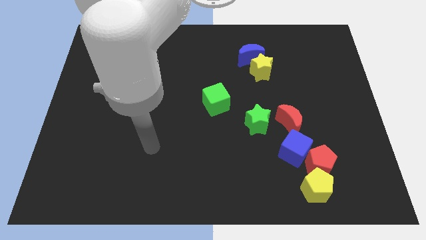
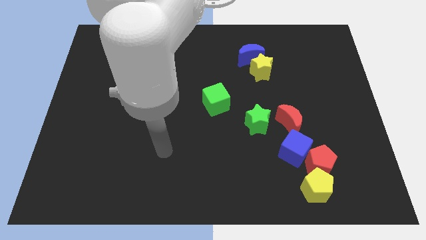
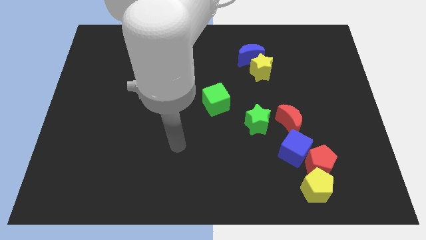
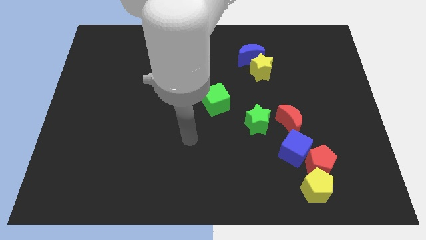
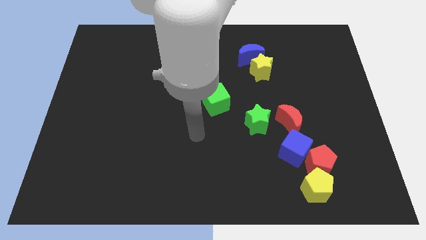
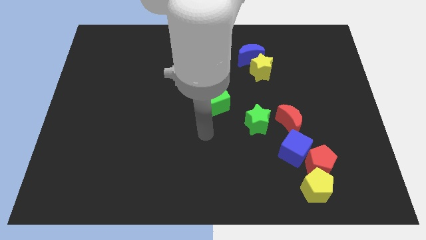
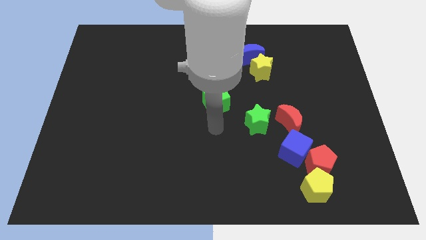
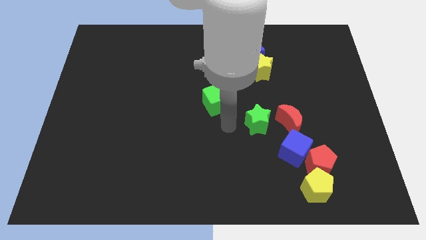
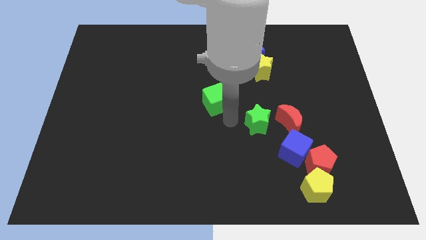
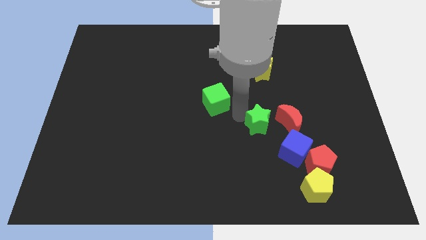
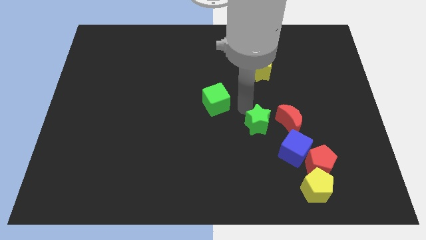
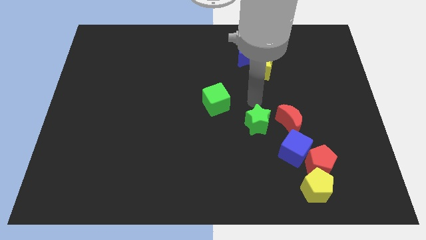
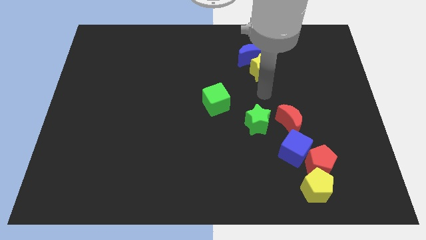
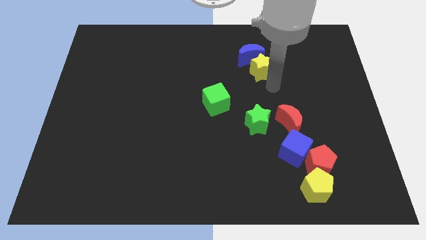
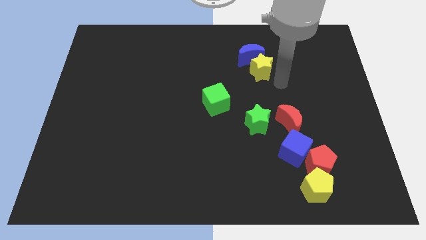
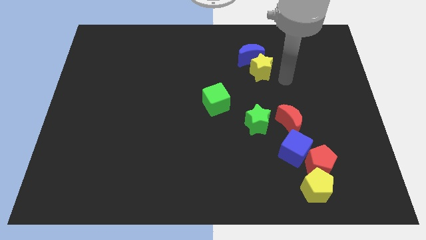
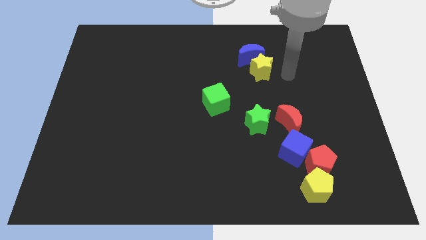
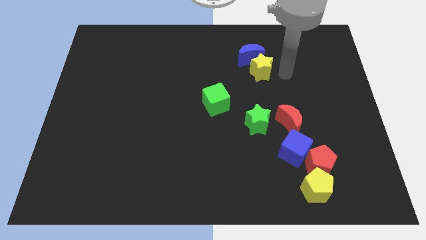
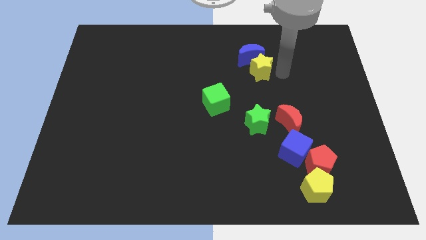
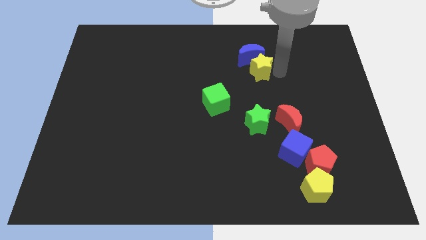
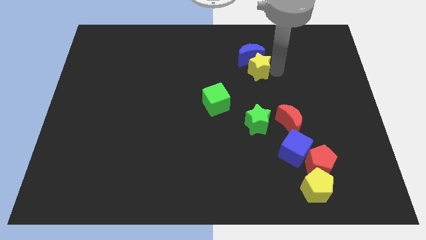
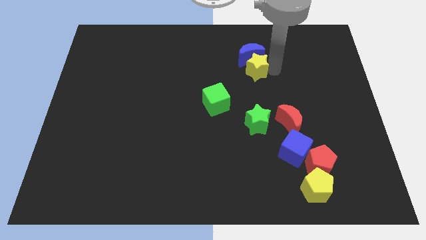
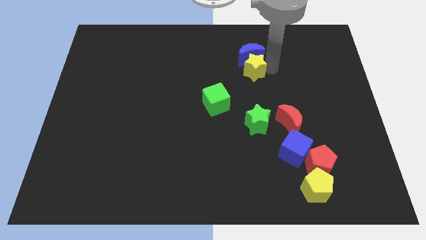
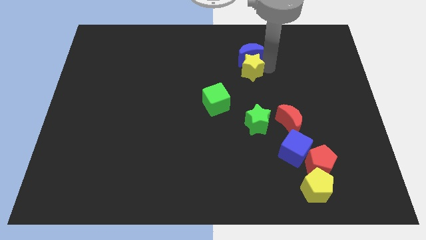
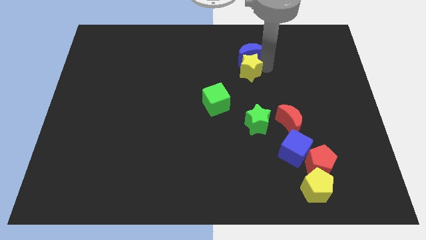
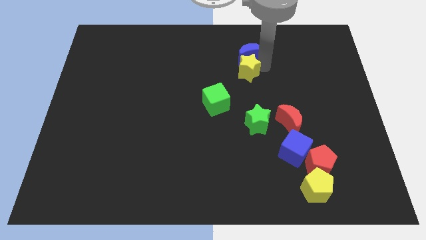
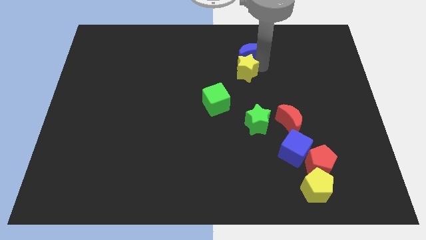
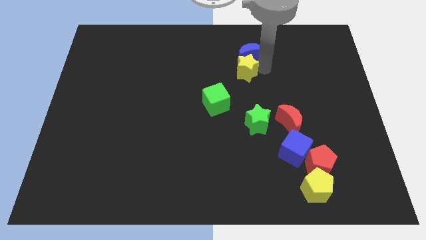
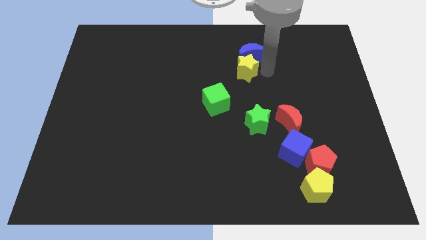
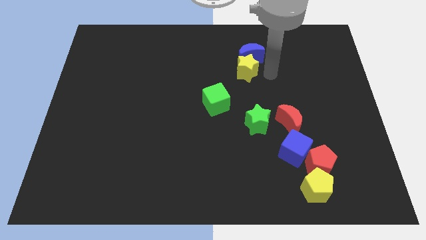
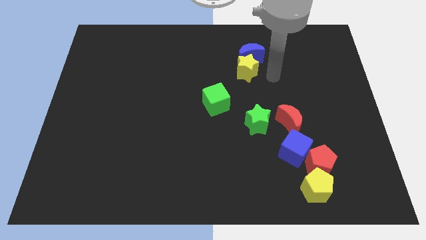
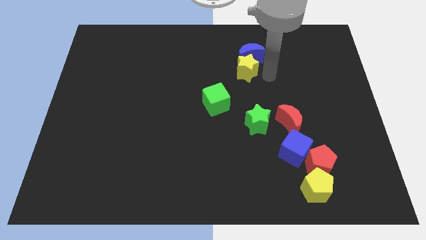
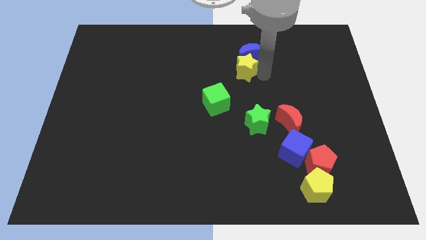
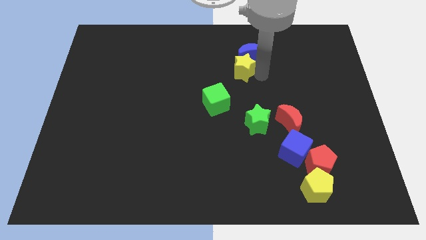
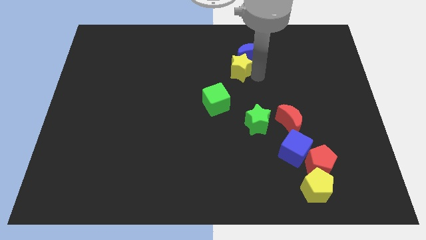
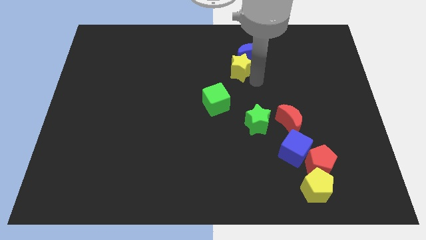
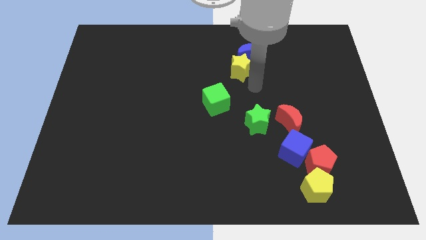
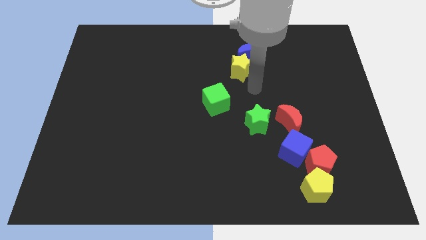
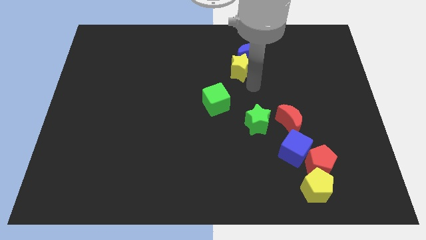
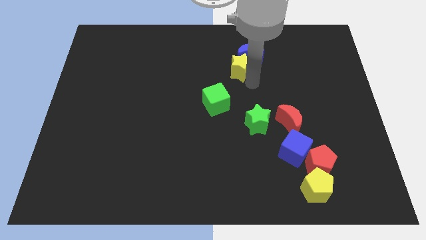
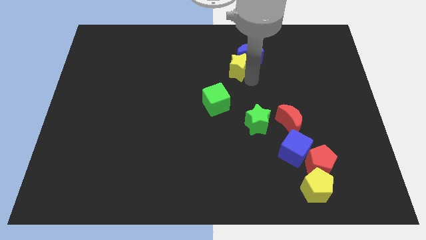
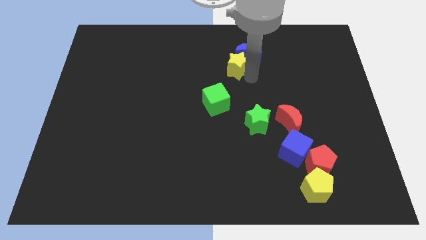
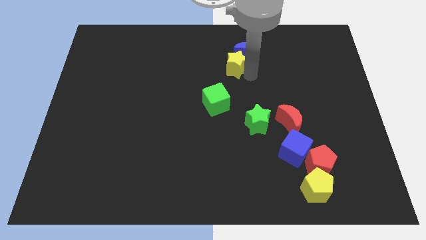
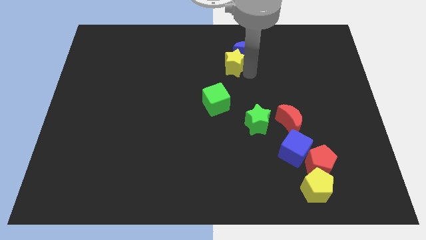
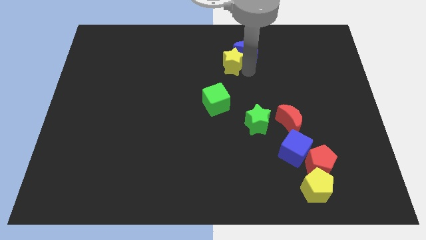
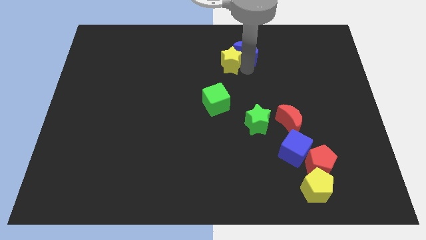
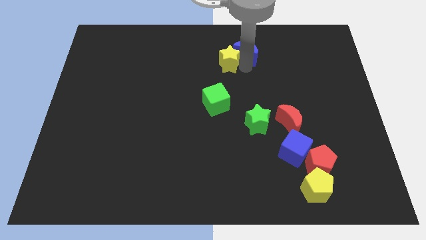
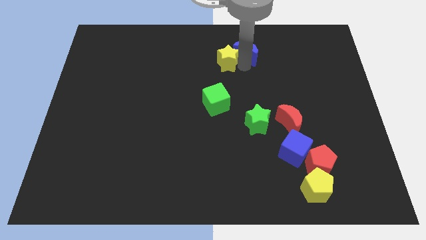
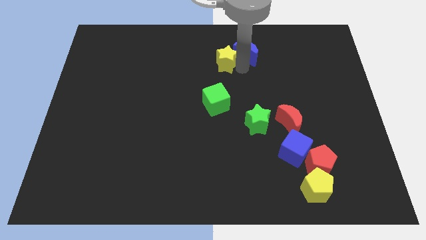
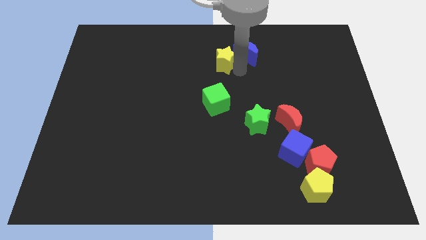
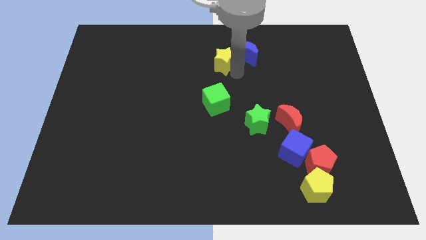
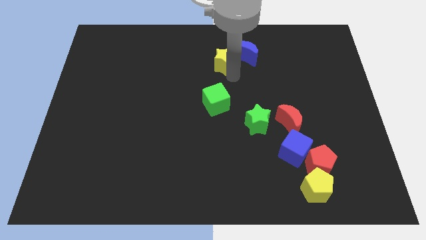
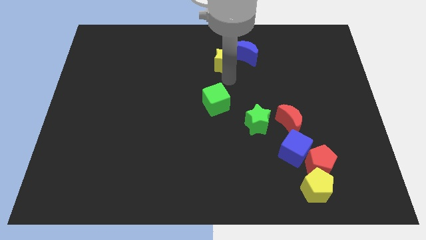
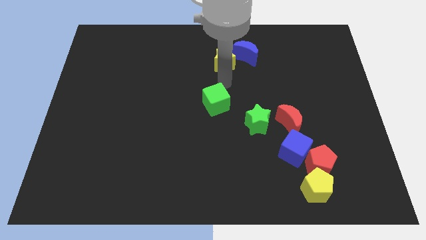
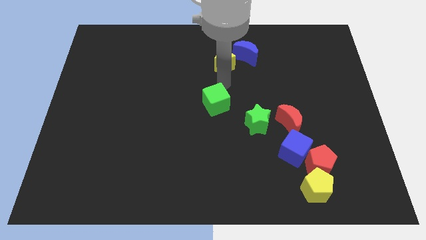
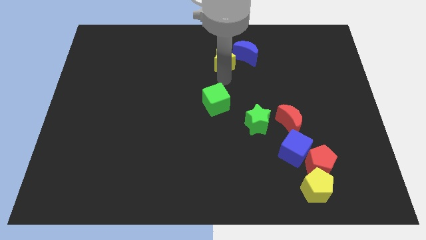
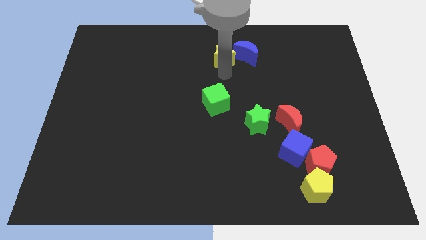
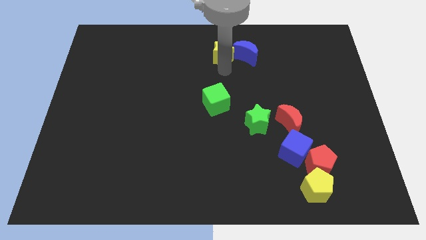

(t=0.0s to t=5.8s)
move the yellow star to the top side
